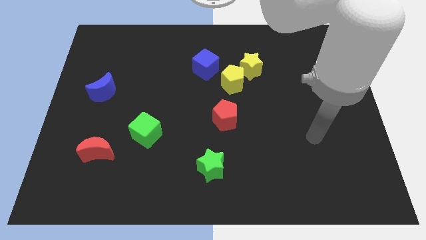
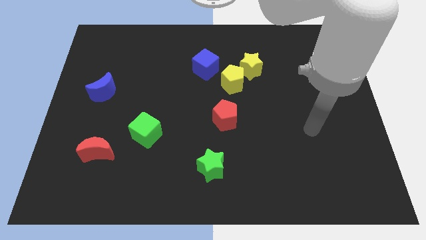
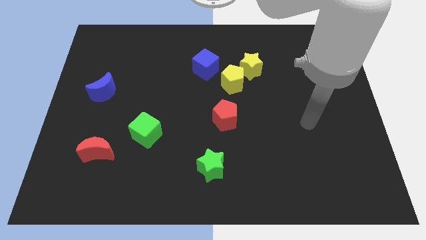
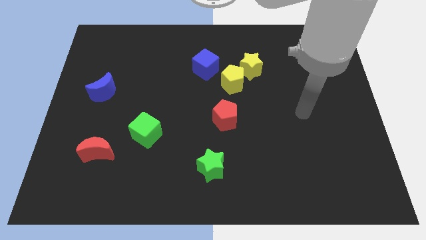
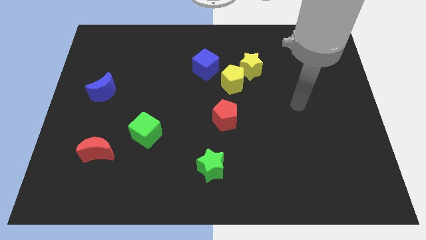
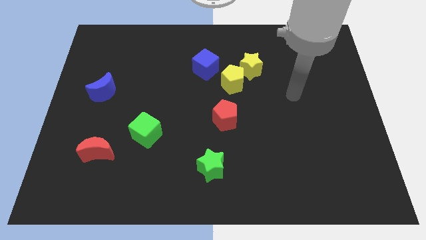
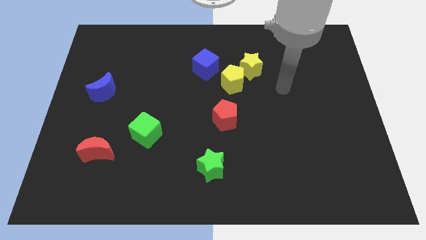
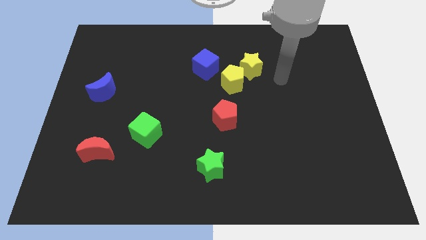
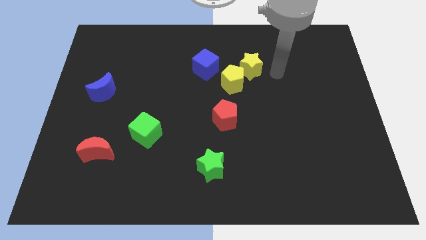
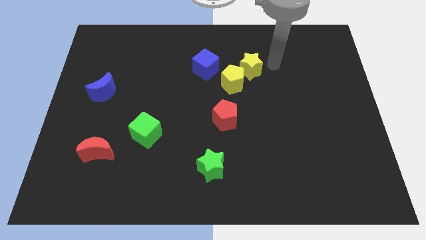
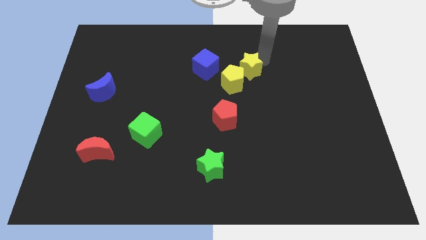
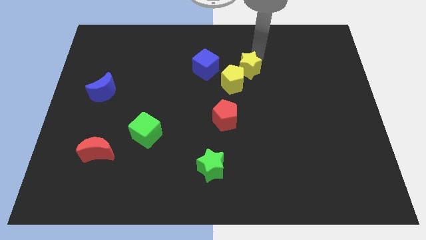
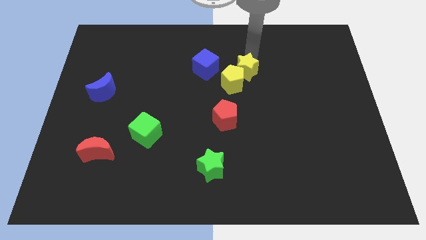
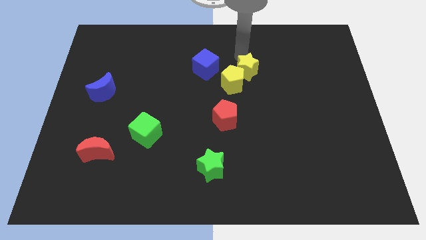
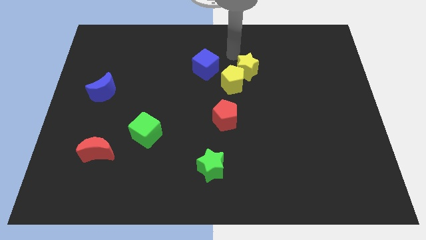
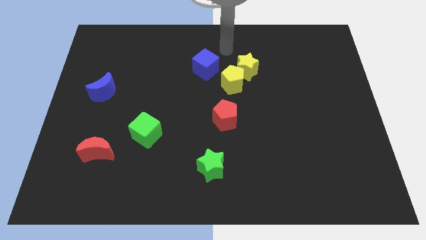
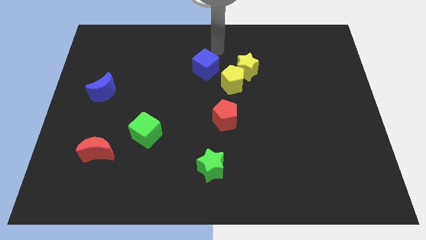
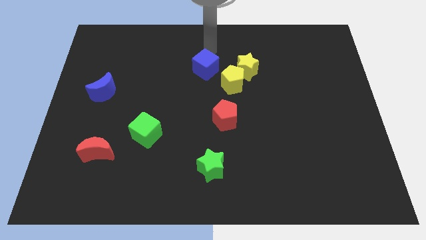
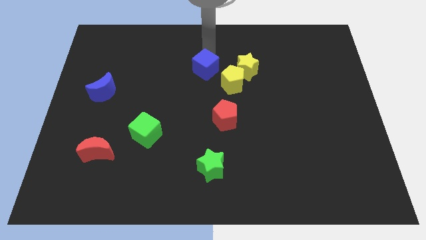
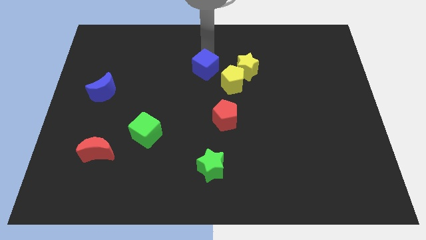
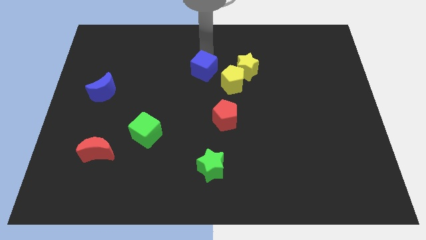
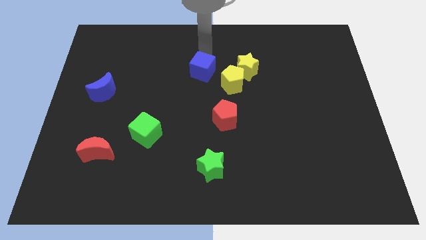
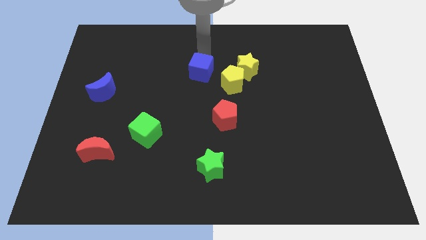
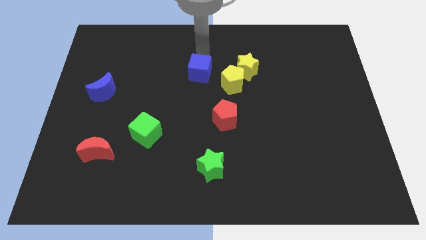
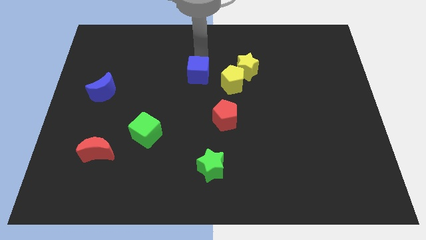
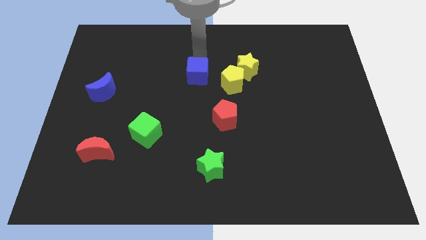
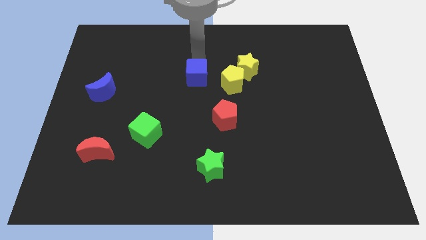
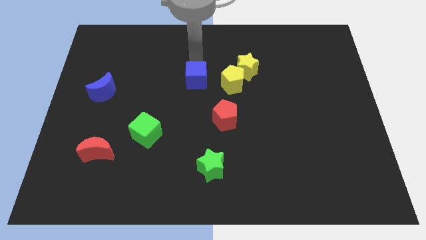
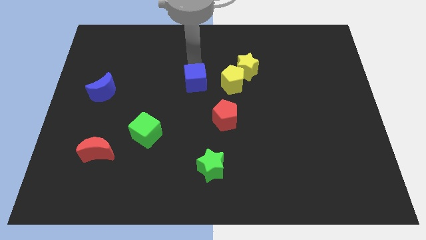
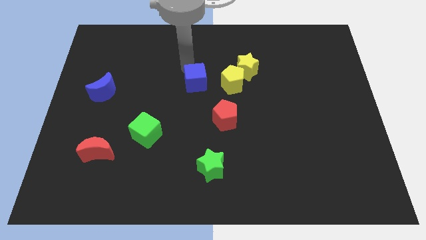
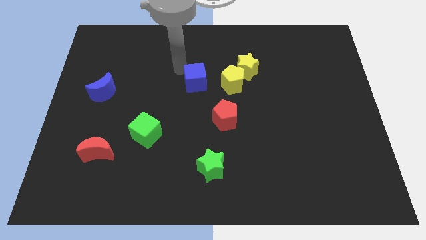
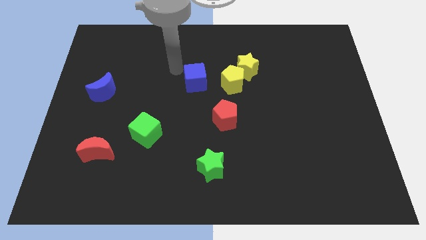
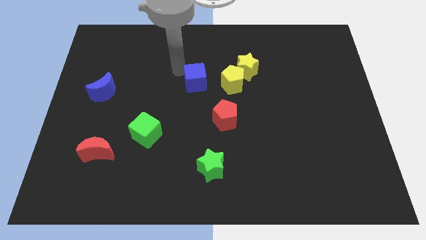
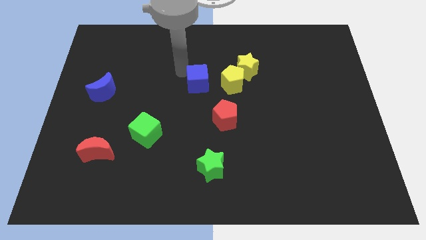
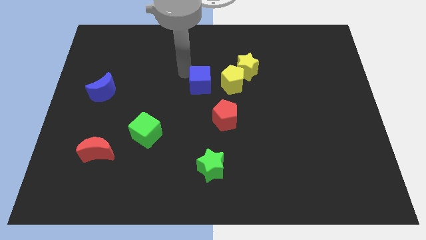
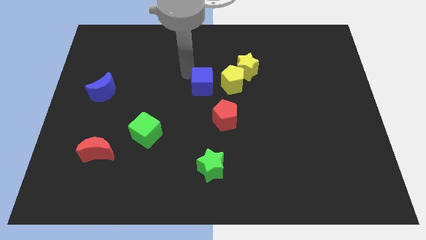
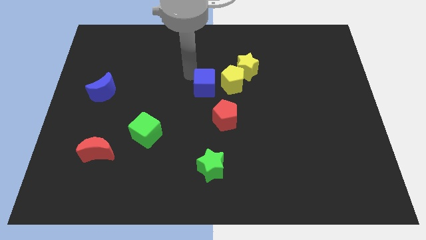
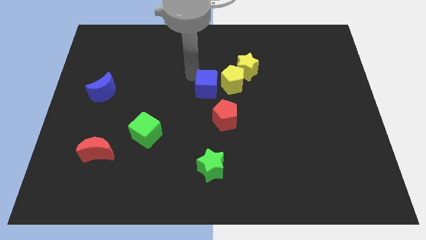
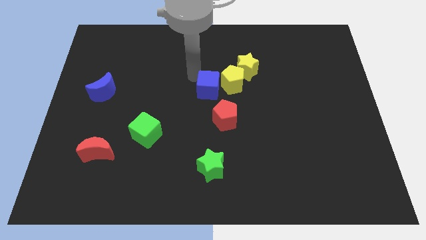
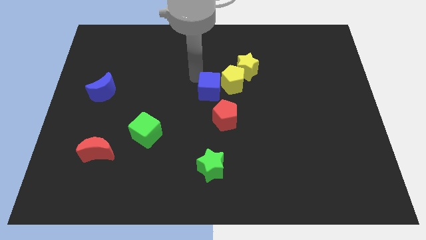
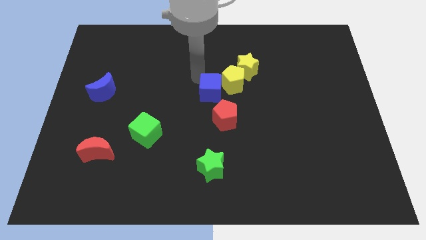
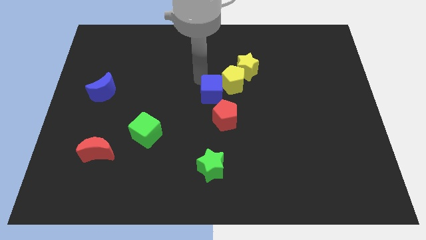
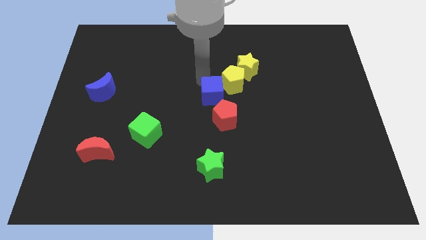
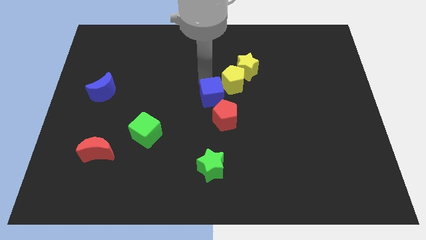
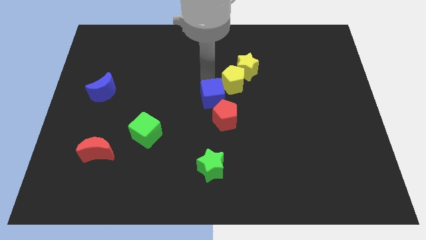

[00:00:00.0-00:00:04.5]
slightly slide the blue cube down and right diagonally

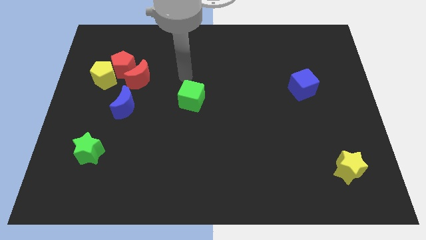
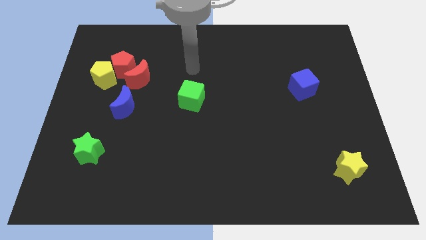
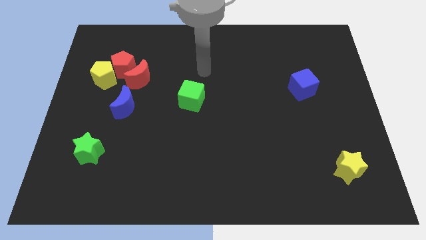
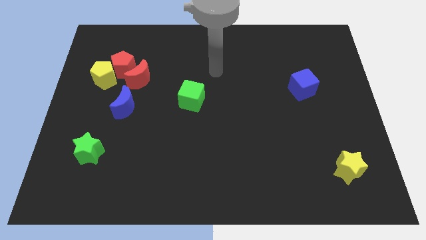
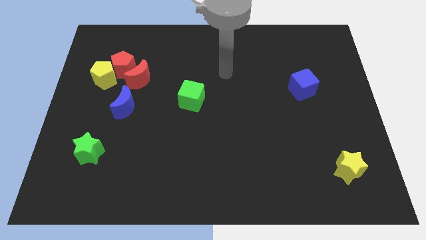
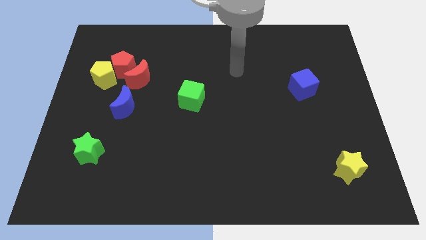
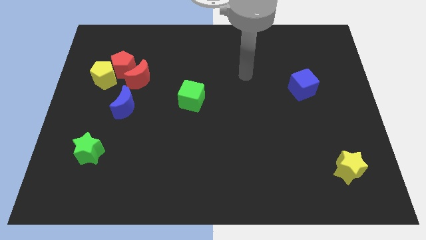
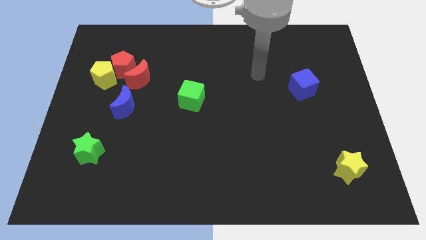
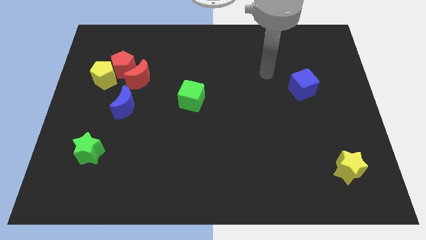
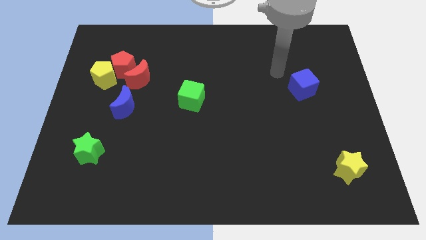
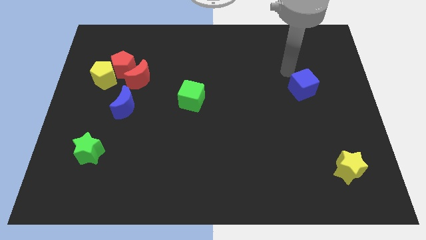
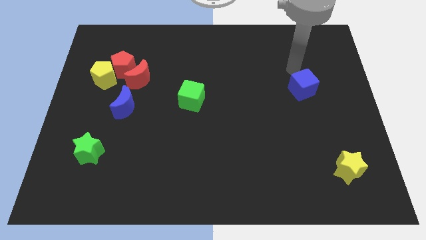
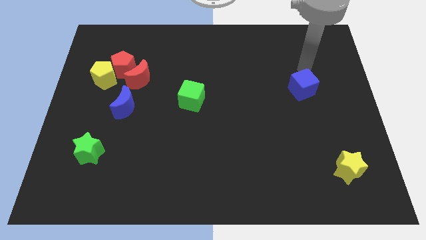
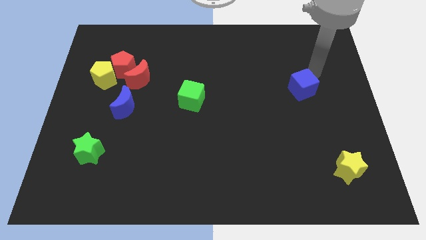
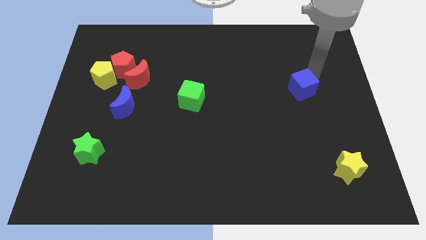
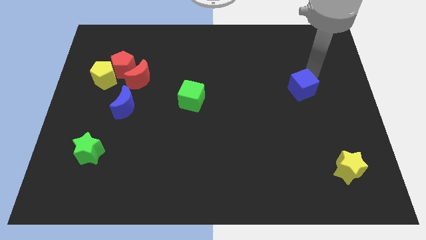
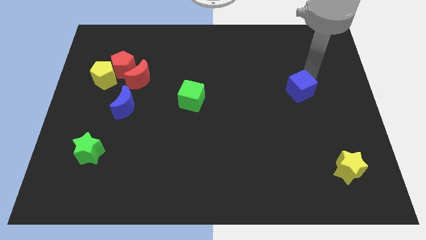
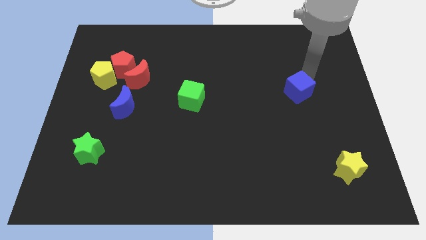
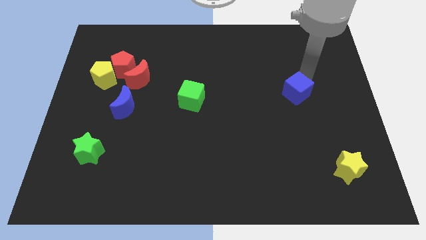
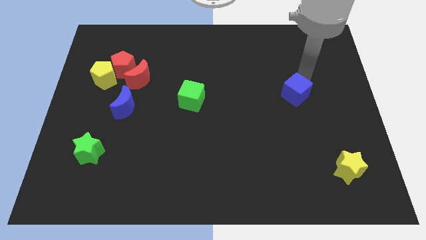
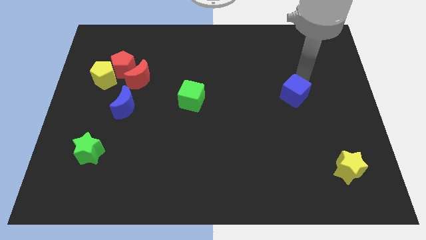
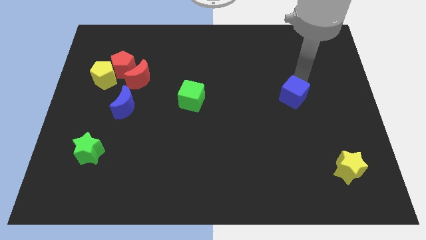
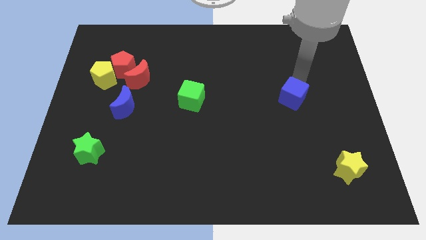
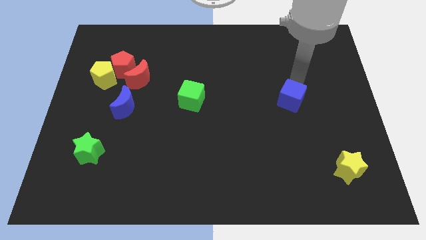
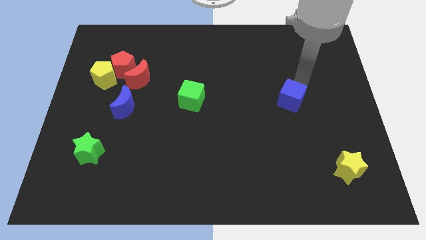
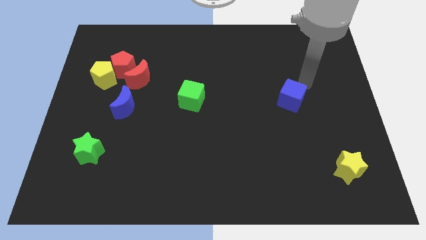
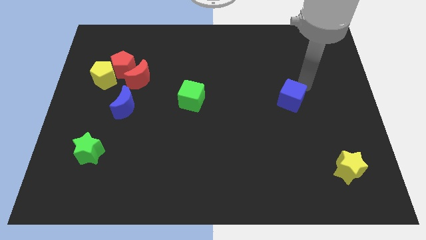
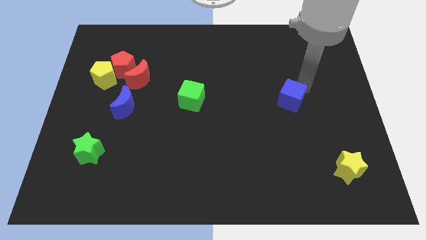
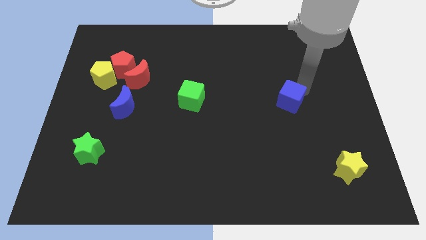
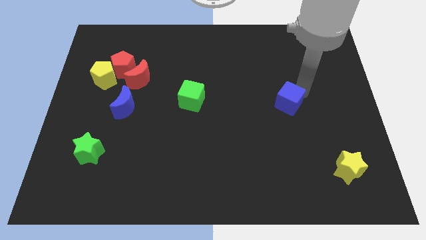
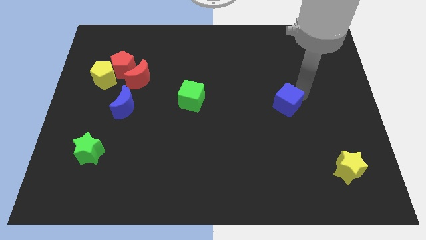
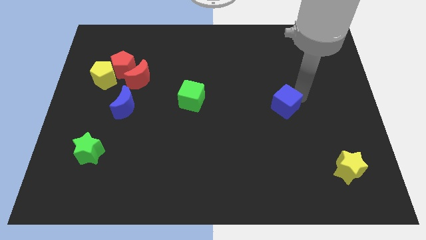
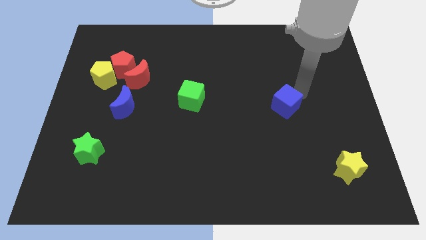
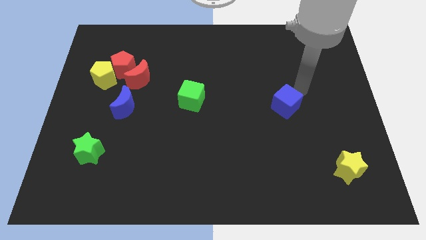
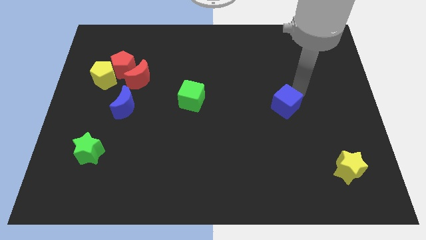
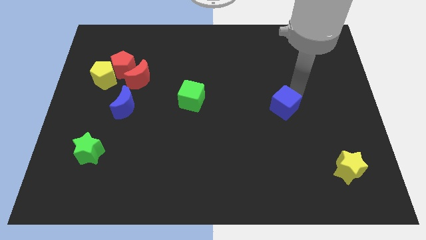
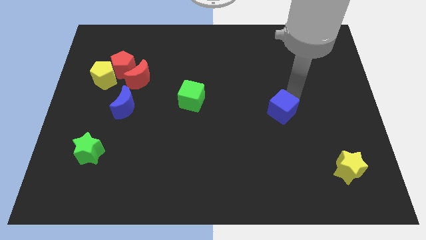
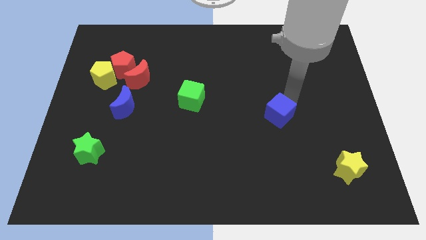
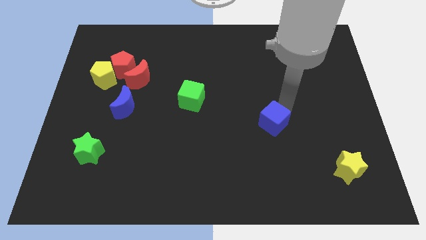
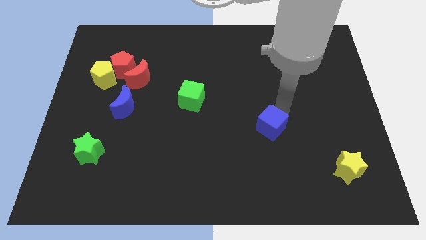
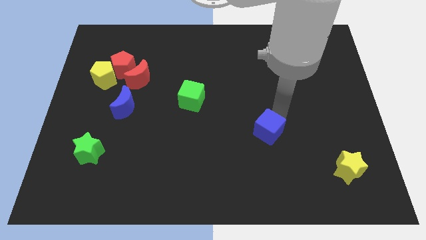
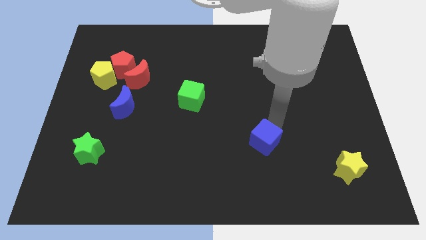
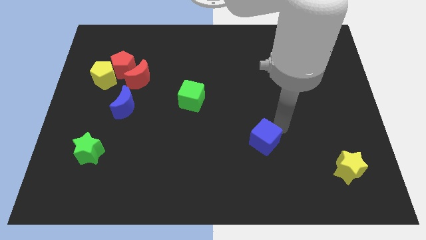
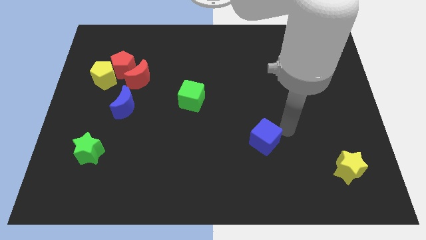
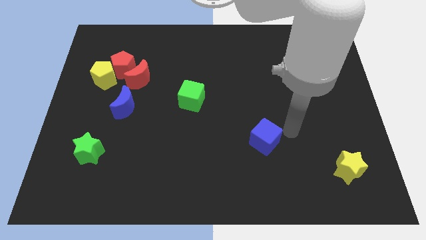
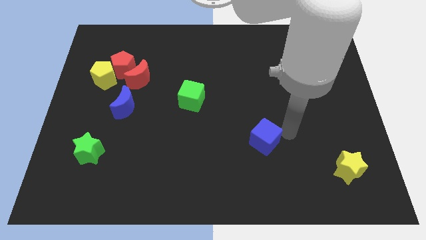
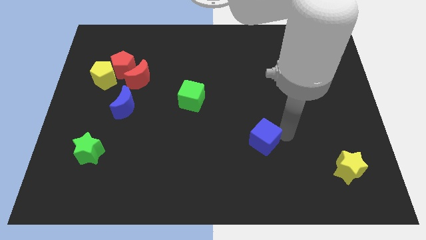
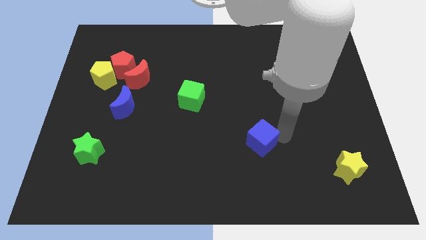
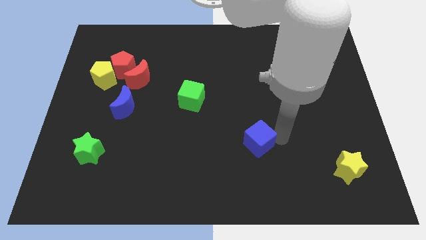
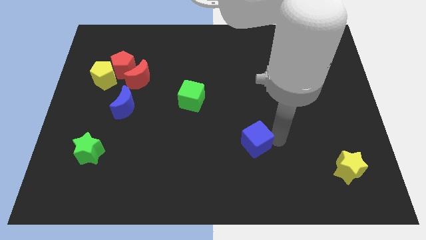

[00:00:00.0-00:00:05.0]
move the blue cube downwards and then to the left
